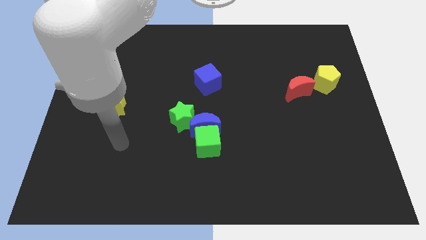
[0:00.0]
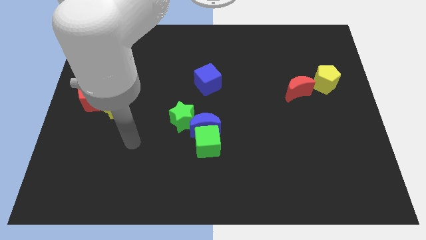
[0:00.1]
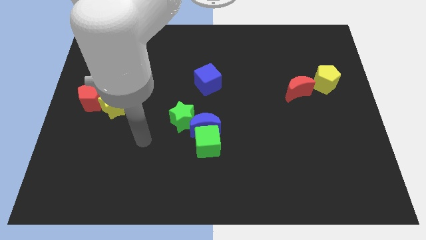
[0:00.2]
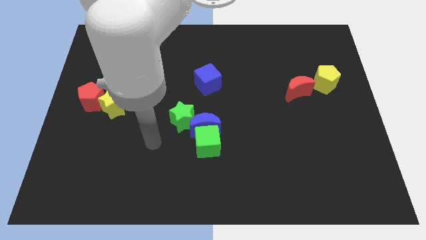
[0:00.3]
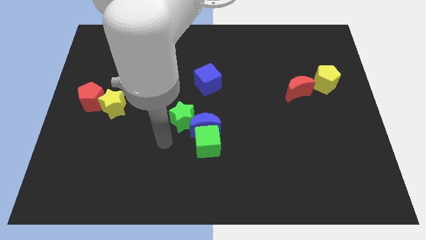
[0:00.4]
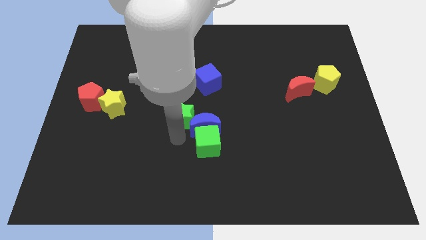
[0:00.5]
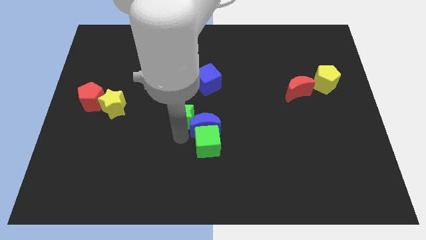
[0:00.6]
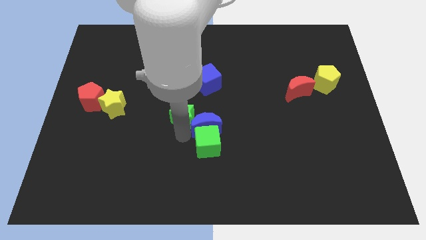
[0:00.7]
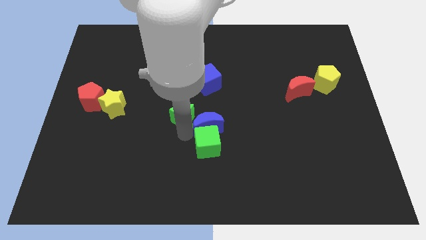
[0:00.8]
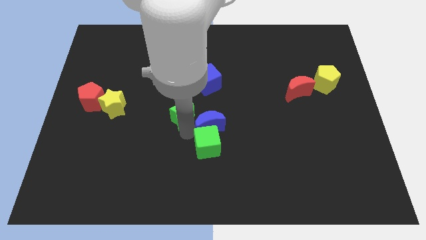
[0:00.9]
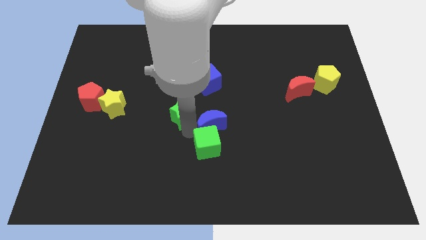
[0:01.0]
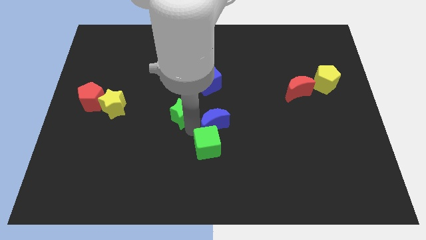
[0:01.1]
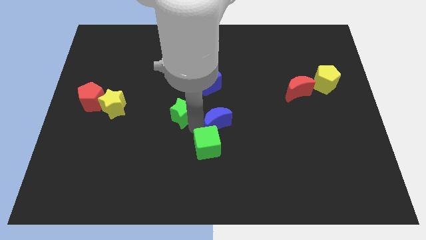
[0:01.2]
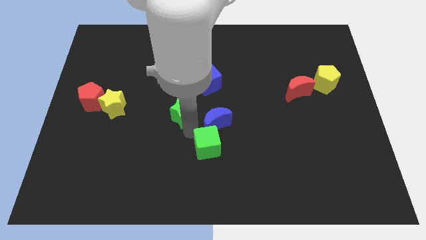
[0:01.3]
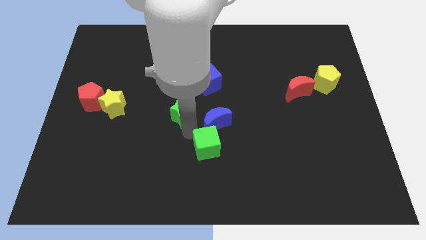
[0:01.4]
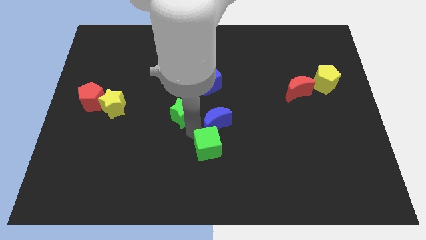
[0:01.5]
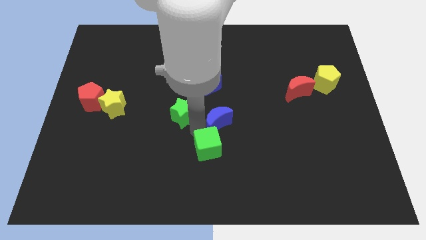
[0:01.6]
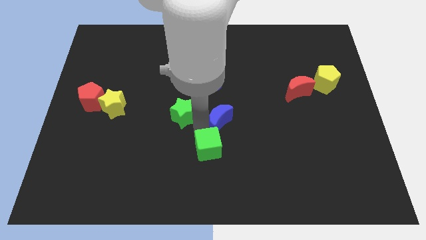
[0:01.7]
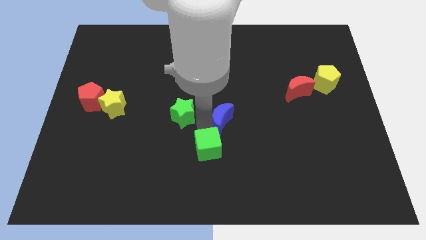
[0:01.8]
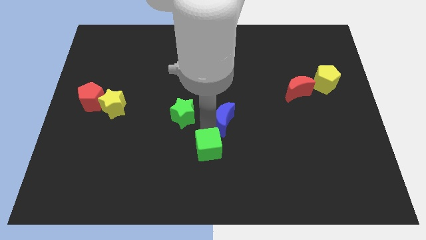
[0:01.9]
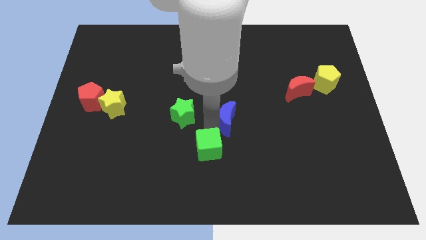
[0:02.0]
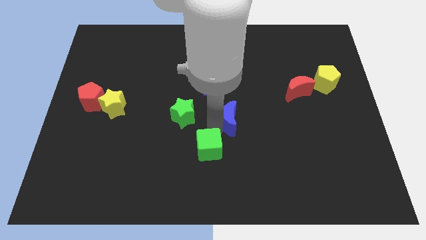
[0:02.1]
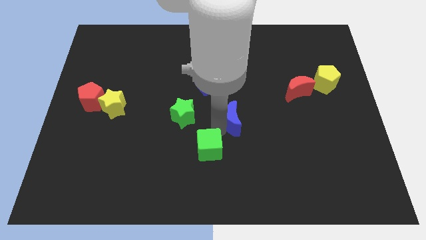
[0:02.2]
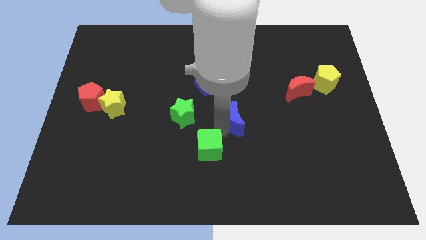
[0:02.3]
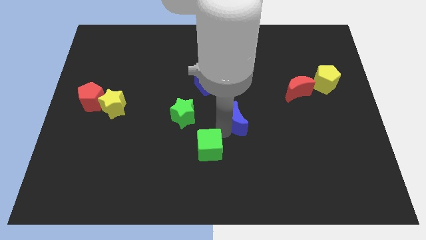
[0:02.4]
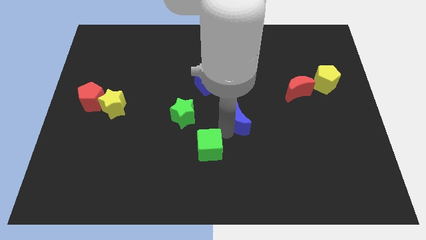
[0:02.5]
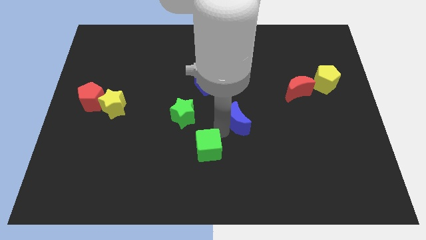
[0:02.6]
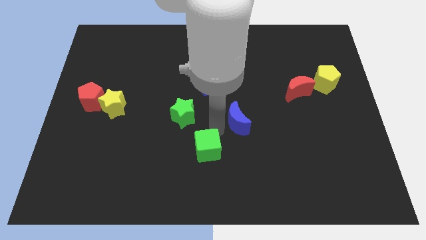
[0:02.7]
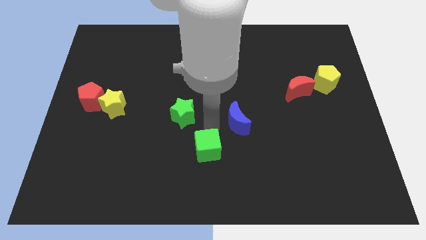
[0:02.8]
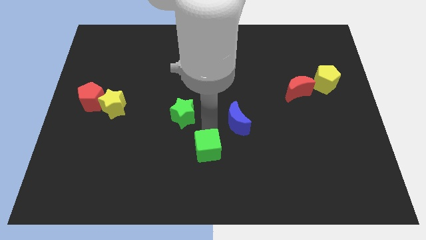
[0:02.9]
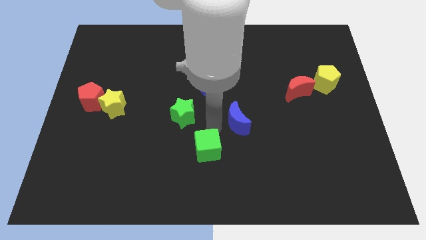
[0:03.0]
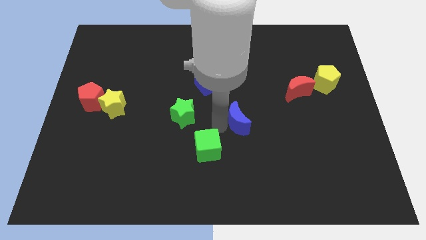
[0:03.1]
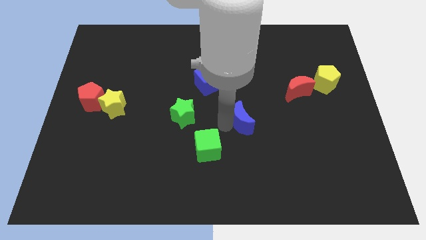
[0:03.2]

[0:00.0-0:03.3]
move the blue moon away from the green cube and green star

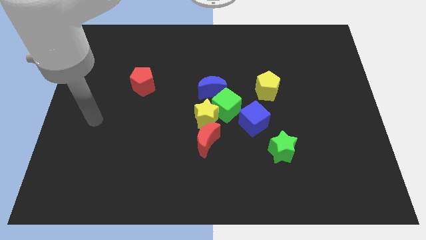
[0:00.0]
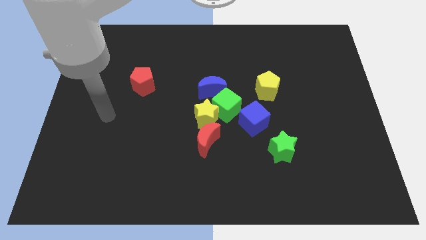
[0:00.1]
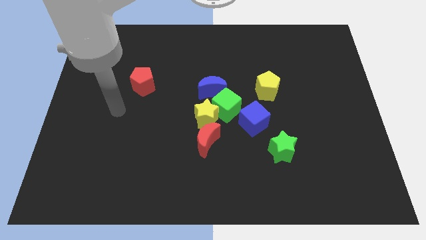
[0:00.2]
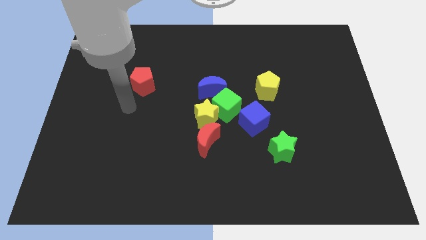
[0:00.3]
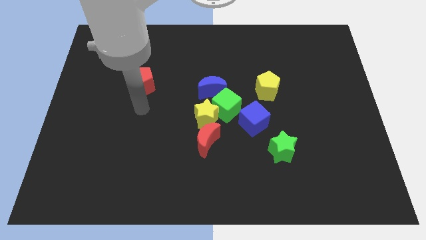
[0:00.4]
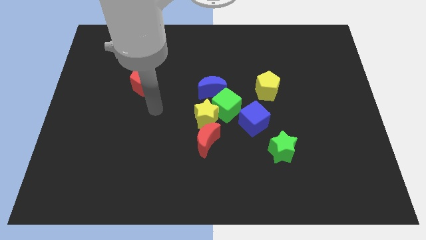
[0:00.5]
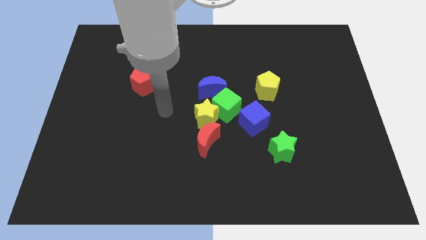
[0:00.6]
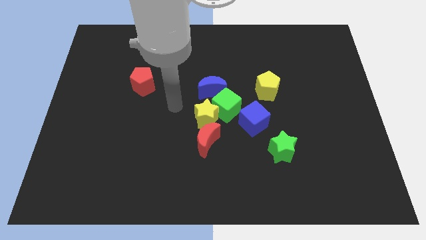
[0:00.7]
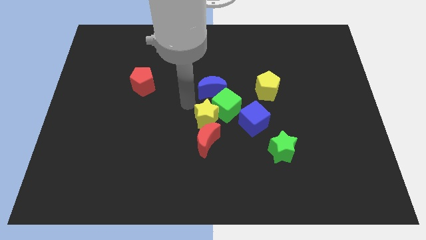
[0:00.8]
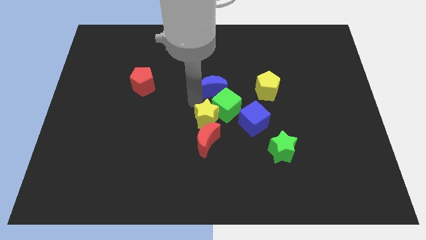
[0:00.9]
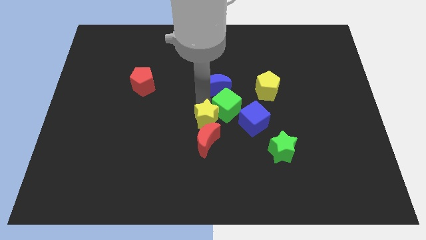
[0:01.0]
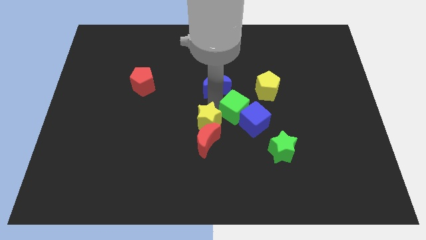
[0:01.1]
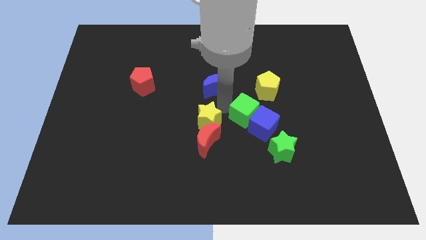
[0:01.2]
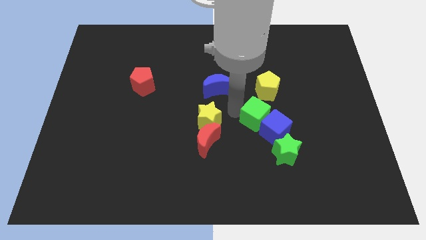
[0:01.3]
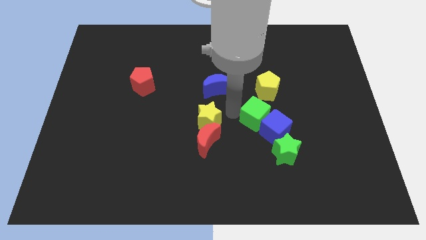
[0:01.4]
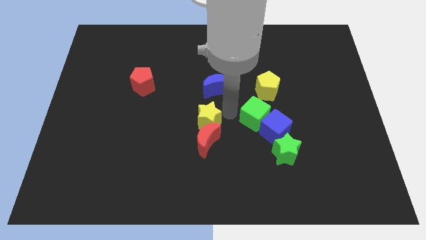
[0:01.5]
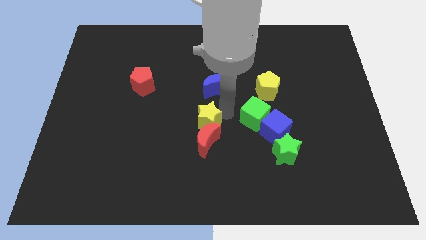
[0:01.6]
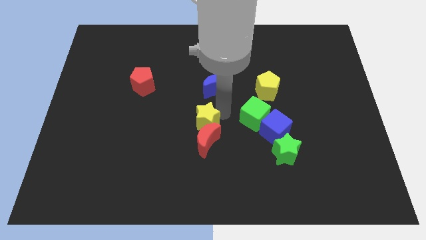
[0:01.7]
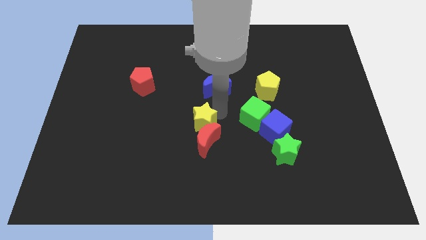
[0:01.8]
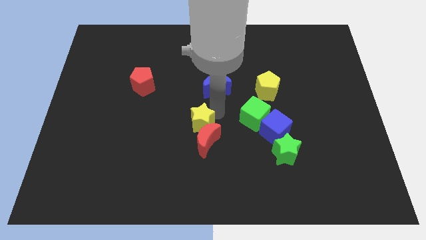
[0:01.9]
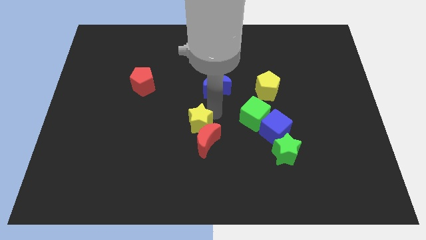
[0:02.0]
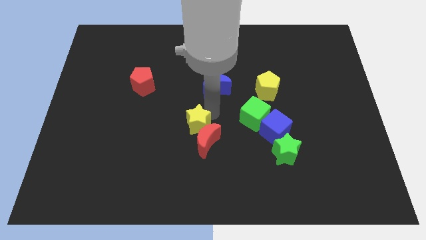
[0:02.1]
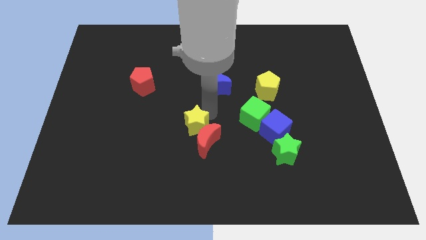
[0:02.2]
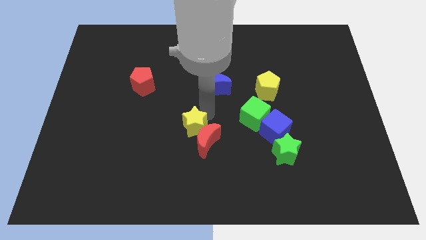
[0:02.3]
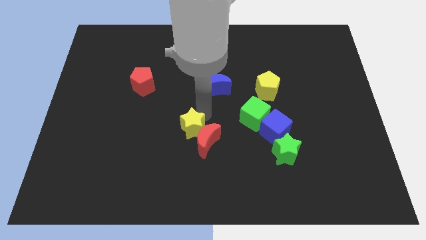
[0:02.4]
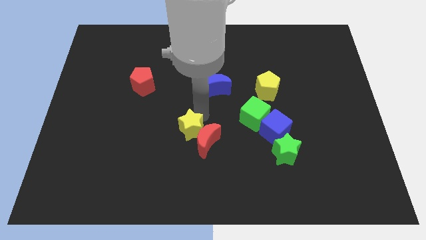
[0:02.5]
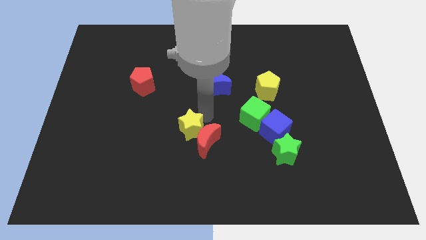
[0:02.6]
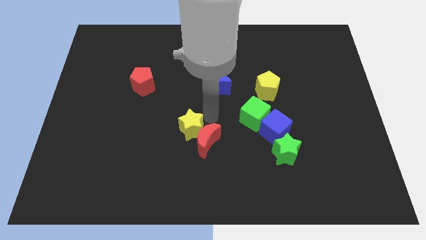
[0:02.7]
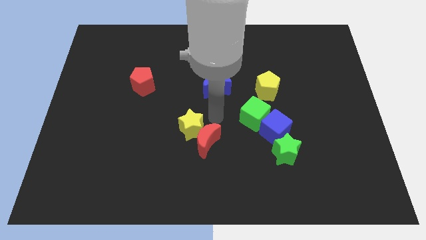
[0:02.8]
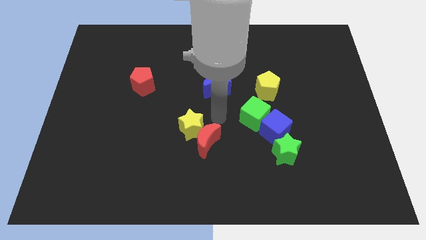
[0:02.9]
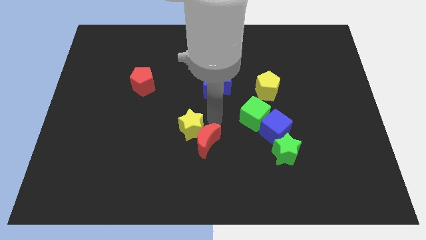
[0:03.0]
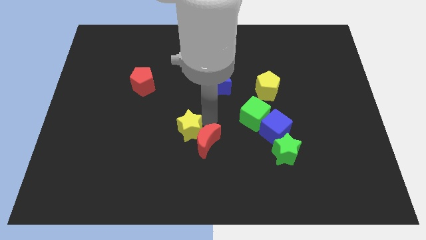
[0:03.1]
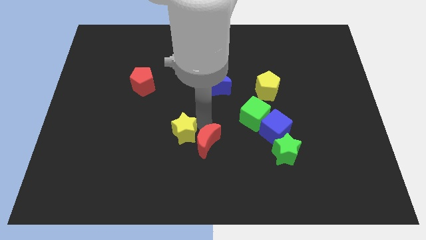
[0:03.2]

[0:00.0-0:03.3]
separate the yellow star from the green cube, red moon, and blue moon

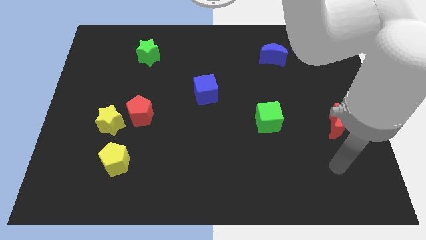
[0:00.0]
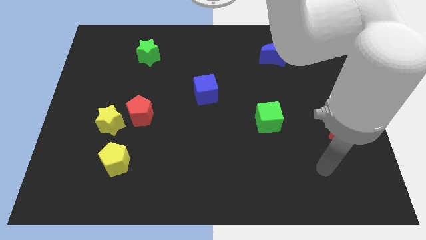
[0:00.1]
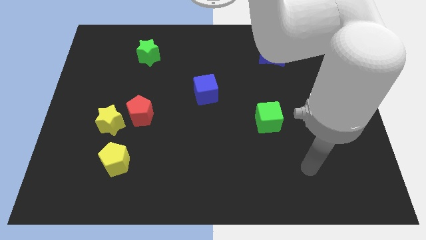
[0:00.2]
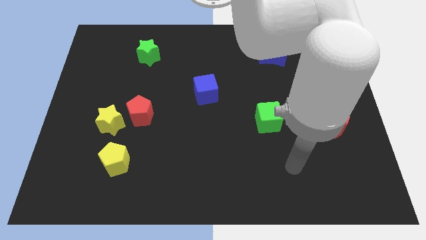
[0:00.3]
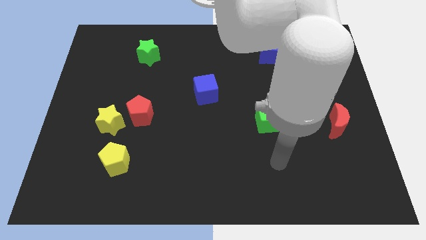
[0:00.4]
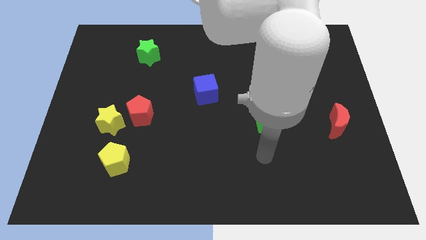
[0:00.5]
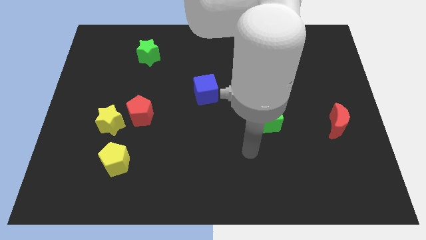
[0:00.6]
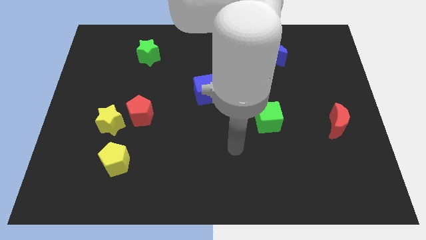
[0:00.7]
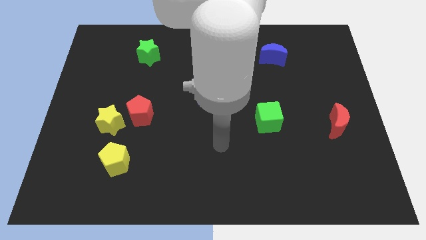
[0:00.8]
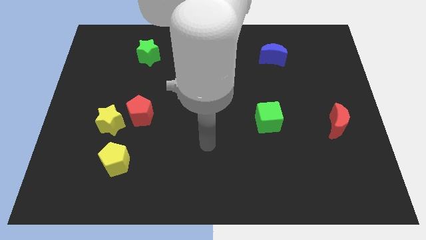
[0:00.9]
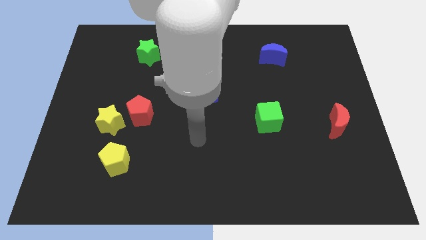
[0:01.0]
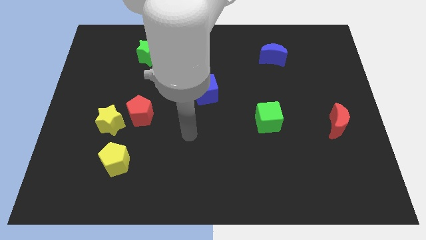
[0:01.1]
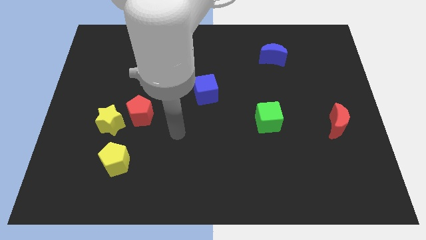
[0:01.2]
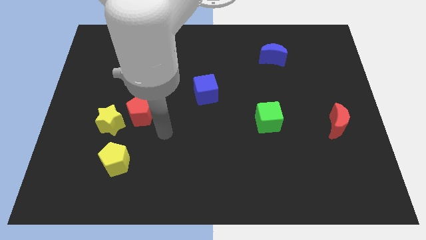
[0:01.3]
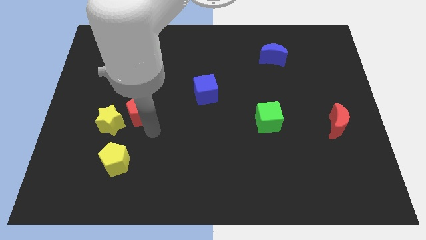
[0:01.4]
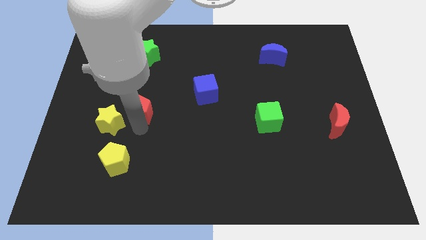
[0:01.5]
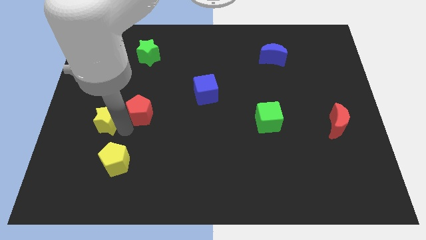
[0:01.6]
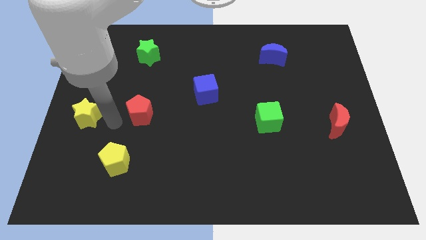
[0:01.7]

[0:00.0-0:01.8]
separate the red pentagon from the yellow star

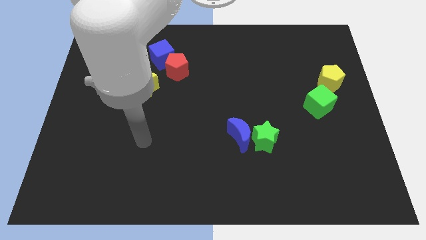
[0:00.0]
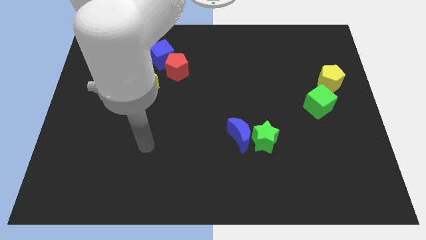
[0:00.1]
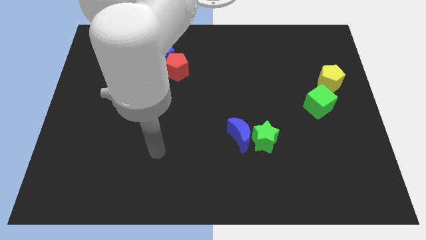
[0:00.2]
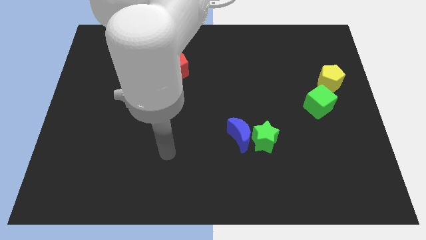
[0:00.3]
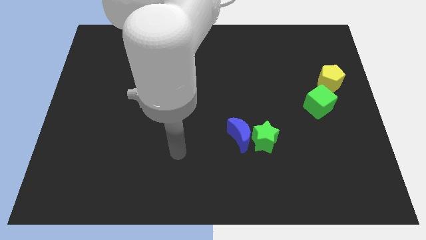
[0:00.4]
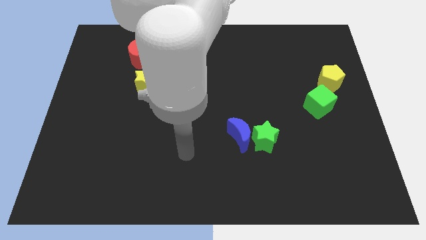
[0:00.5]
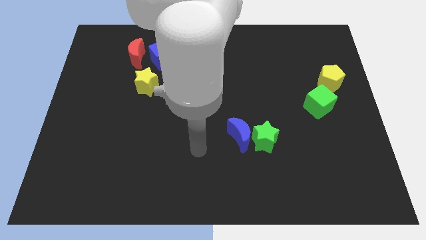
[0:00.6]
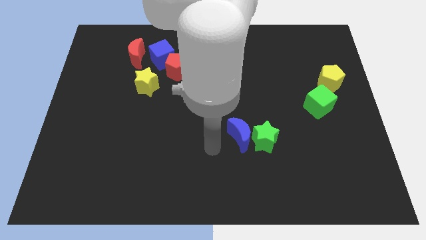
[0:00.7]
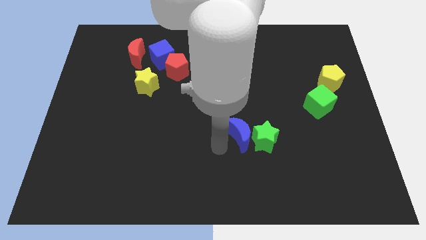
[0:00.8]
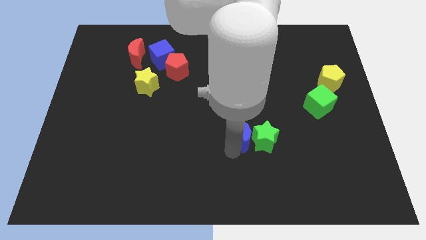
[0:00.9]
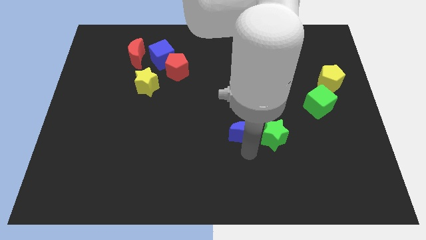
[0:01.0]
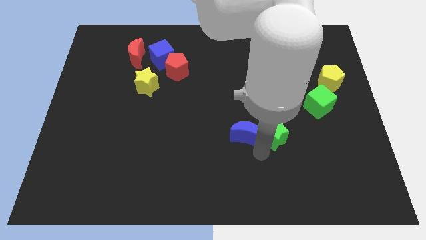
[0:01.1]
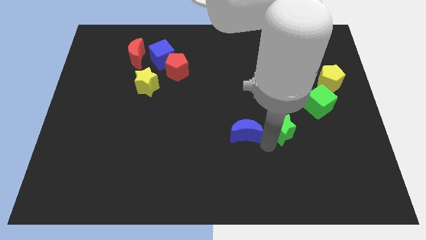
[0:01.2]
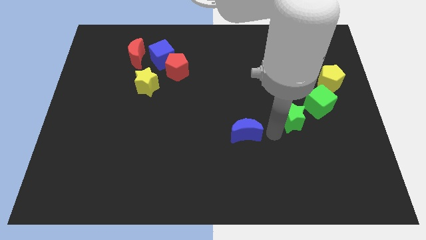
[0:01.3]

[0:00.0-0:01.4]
separate the blue moon from the green star
